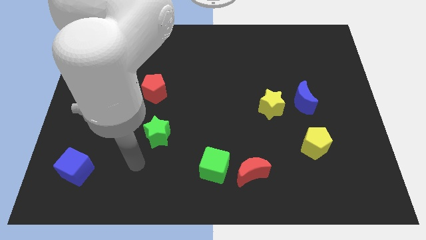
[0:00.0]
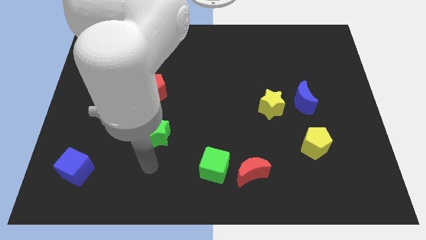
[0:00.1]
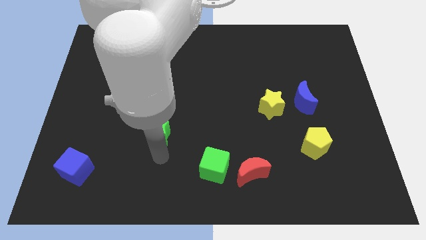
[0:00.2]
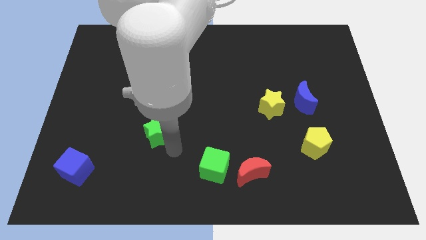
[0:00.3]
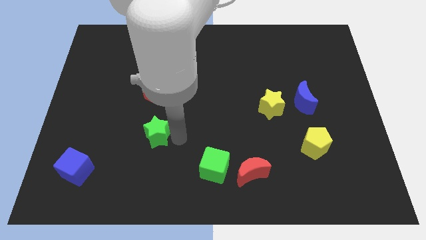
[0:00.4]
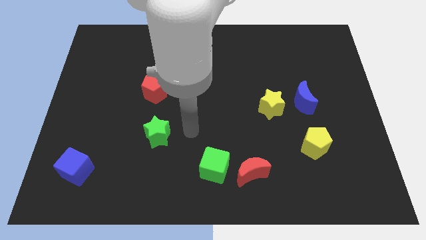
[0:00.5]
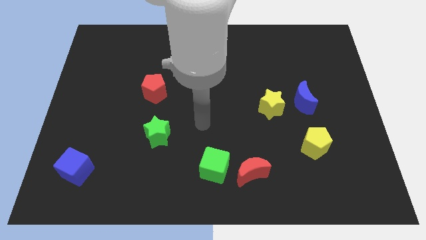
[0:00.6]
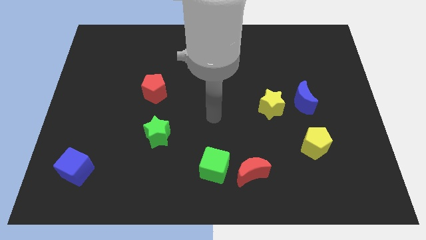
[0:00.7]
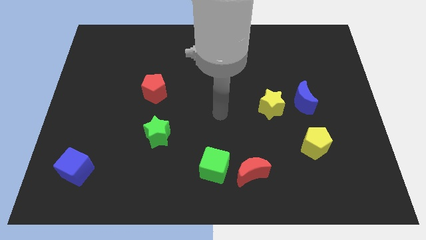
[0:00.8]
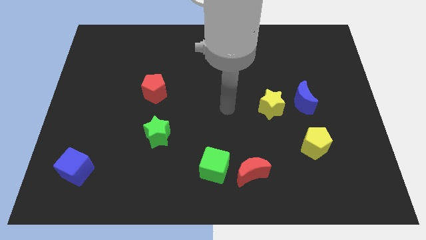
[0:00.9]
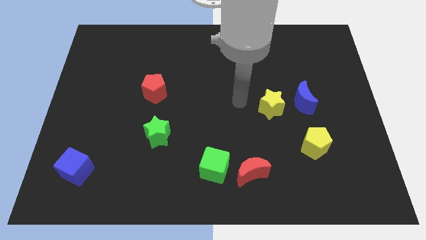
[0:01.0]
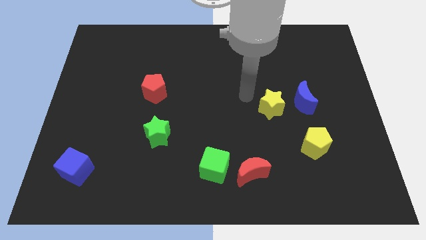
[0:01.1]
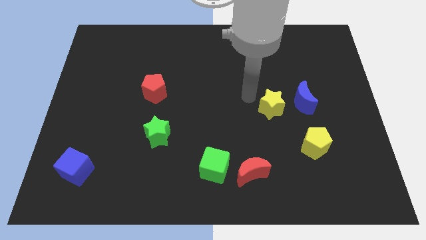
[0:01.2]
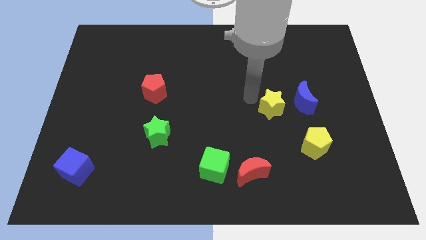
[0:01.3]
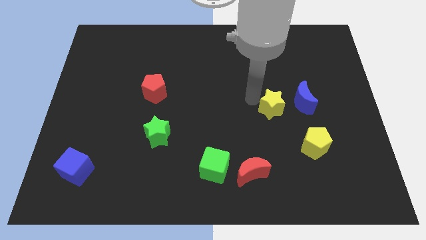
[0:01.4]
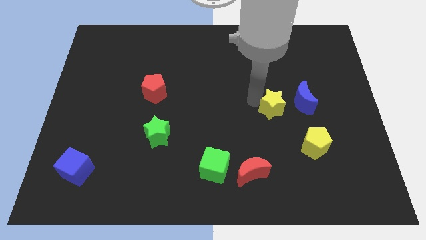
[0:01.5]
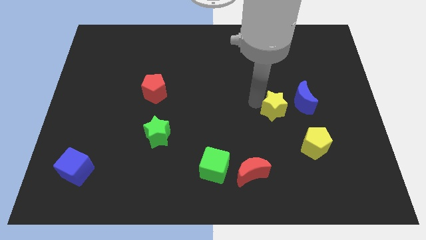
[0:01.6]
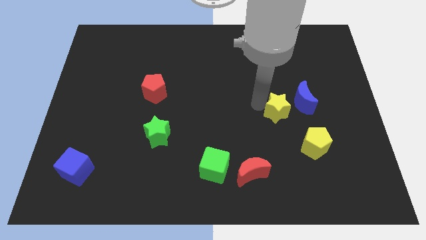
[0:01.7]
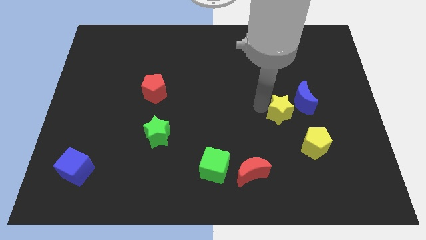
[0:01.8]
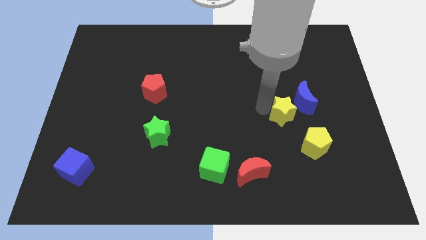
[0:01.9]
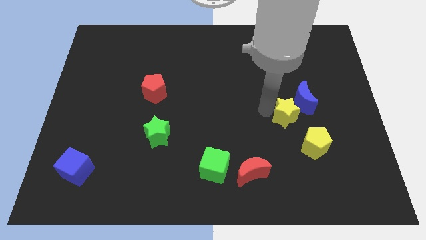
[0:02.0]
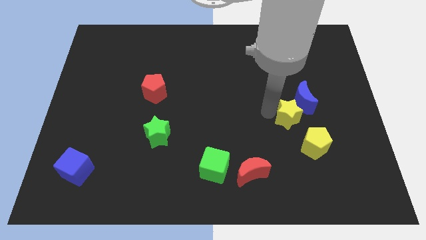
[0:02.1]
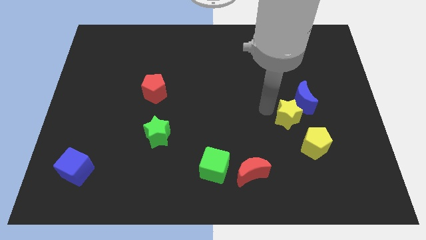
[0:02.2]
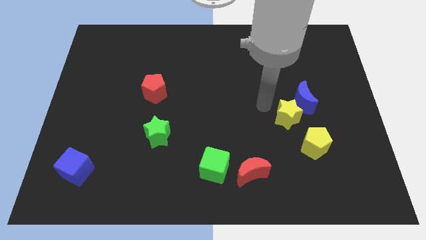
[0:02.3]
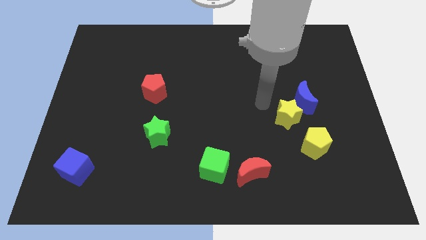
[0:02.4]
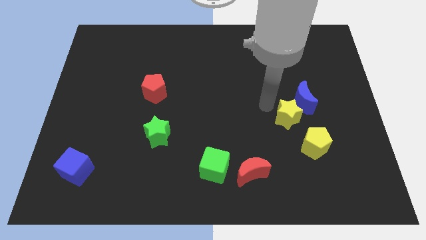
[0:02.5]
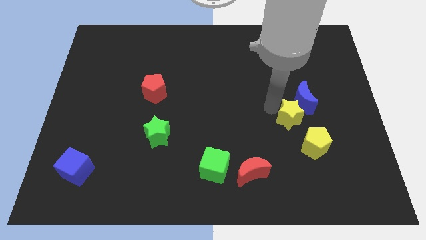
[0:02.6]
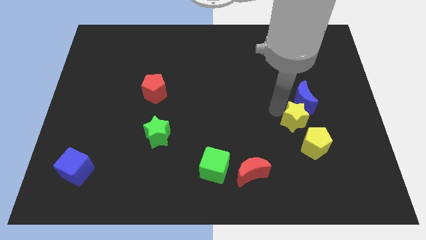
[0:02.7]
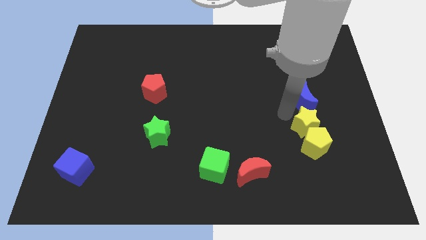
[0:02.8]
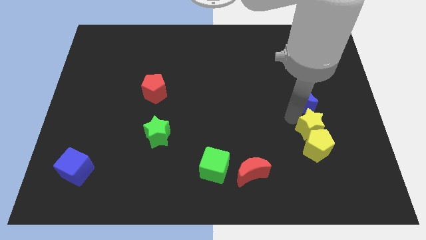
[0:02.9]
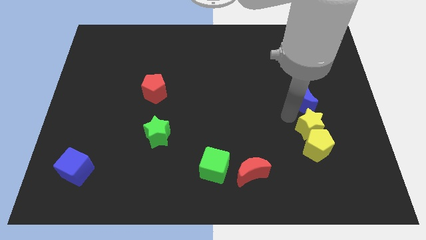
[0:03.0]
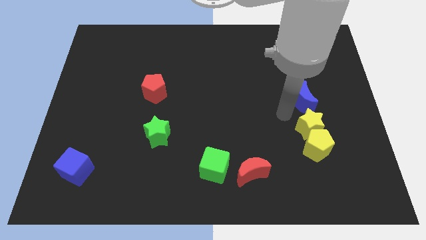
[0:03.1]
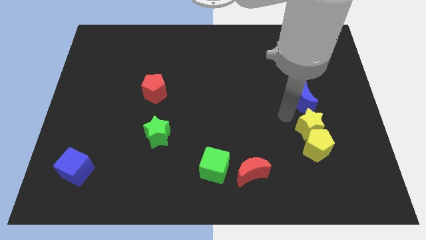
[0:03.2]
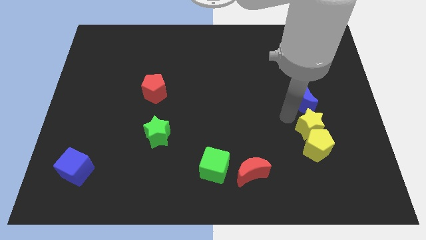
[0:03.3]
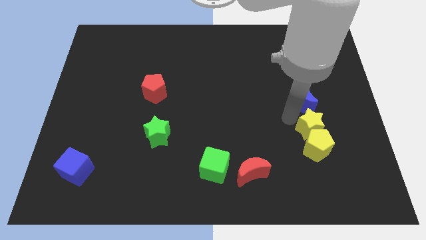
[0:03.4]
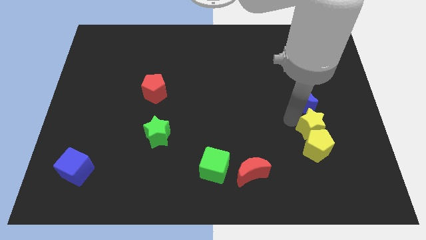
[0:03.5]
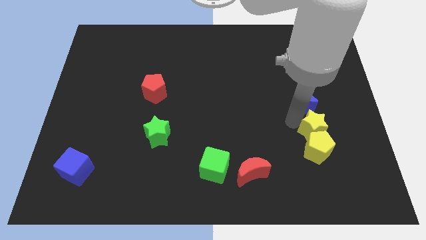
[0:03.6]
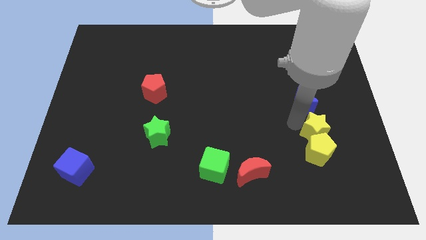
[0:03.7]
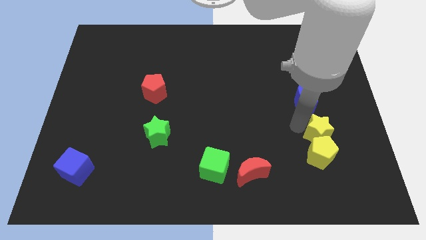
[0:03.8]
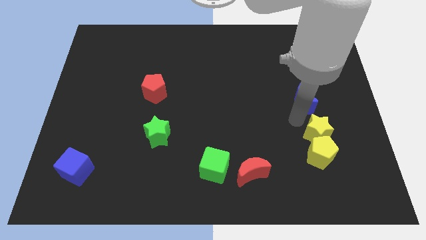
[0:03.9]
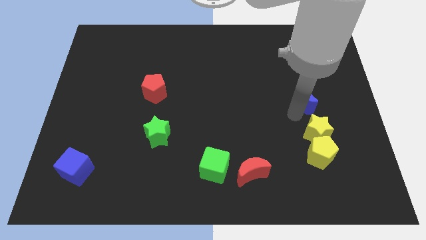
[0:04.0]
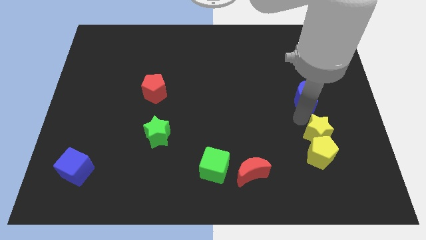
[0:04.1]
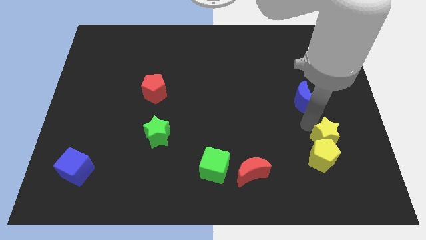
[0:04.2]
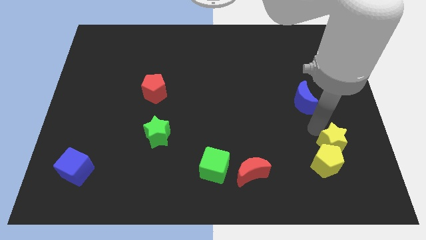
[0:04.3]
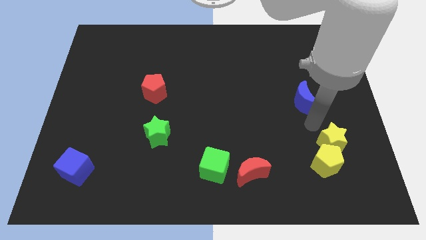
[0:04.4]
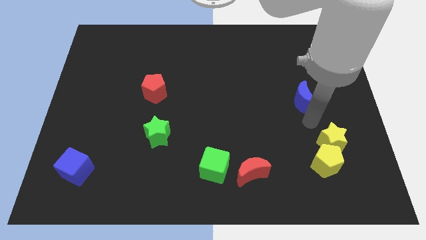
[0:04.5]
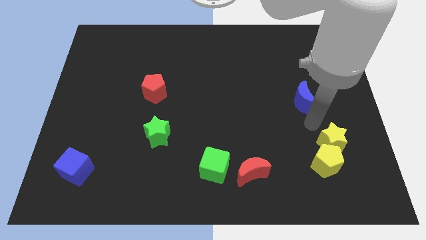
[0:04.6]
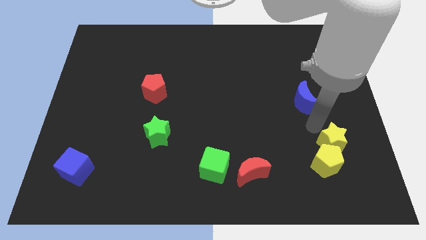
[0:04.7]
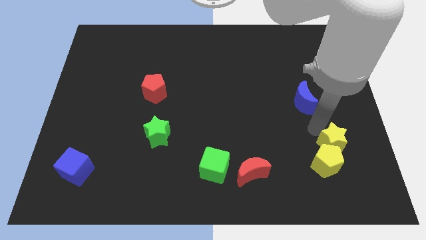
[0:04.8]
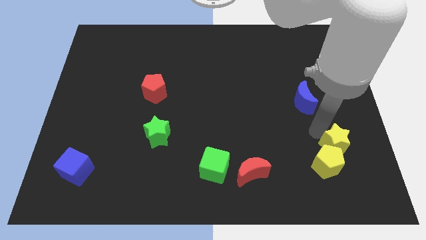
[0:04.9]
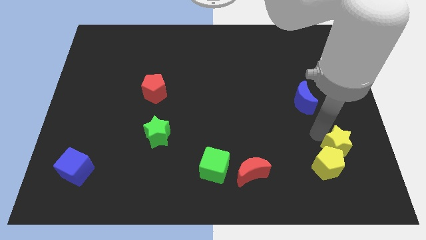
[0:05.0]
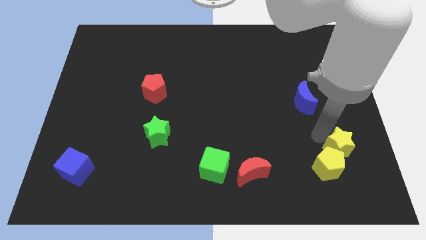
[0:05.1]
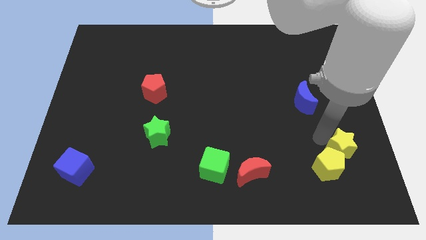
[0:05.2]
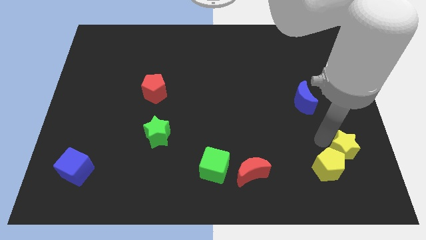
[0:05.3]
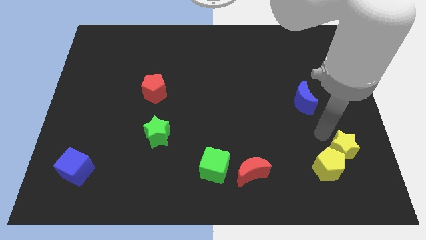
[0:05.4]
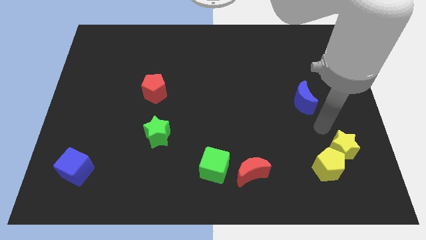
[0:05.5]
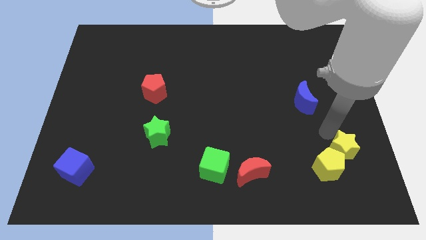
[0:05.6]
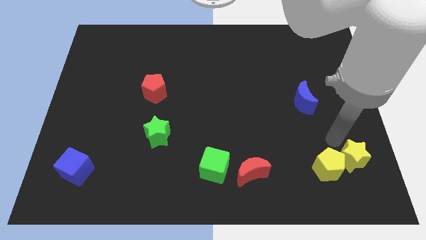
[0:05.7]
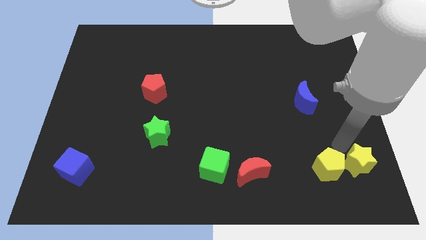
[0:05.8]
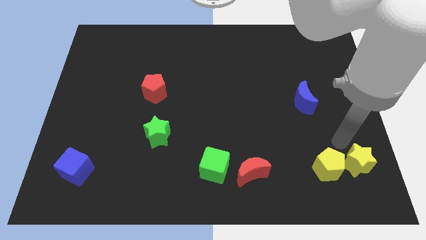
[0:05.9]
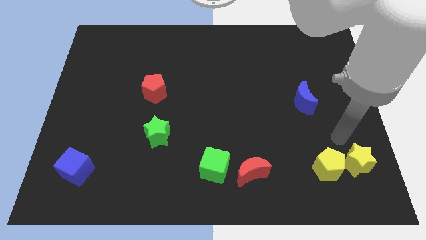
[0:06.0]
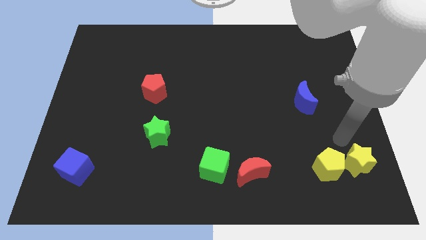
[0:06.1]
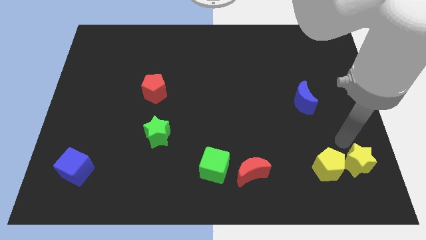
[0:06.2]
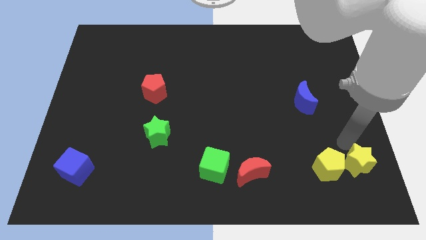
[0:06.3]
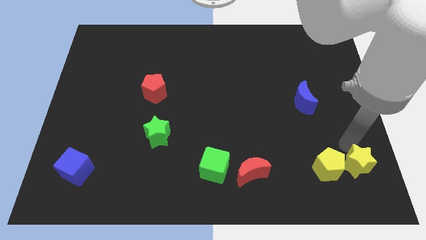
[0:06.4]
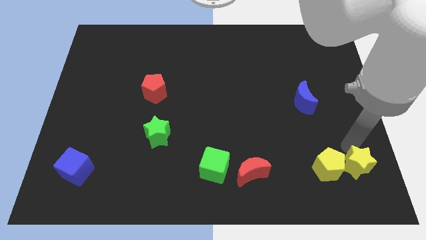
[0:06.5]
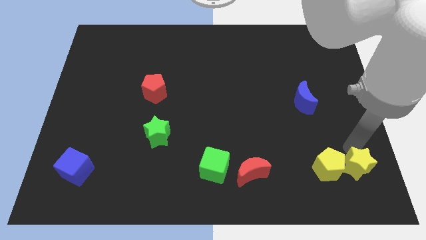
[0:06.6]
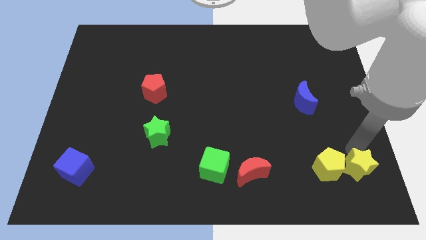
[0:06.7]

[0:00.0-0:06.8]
push the yellow star to the bottom right

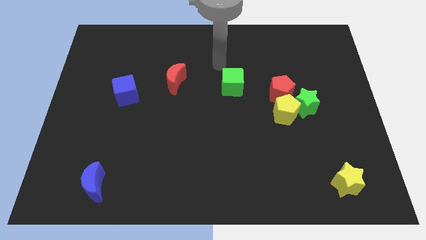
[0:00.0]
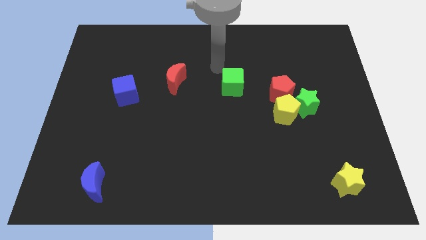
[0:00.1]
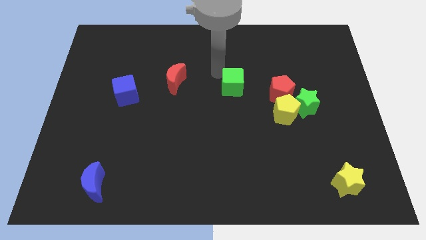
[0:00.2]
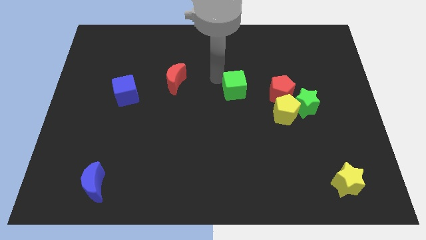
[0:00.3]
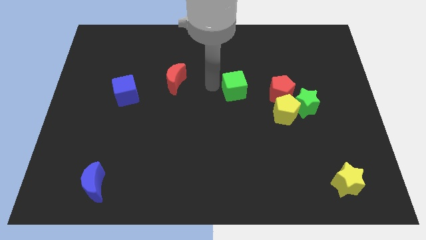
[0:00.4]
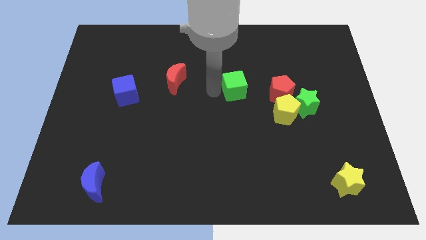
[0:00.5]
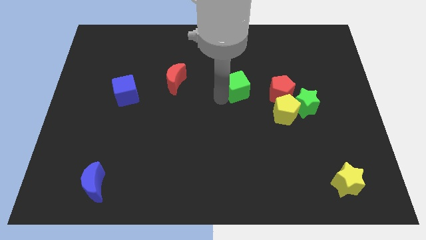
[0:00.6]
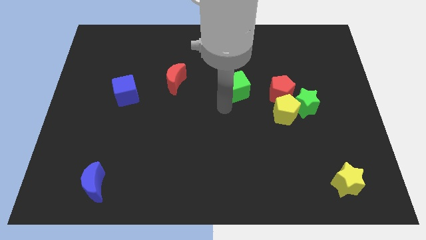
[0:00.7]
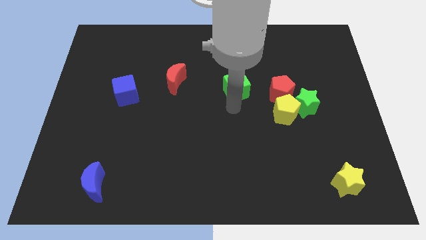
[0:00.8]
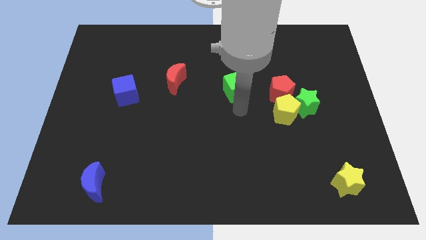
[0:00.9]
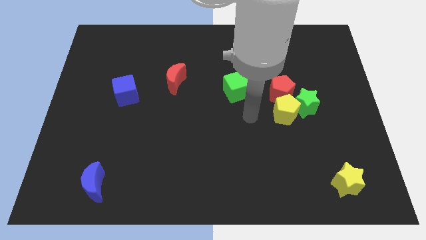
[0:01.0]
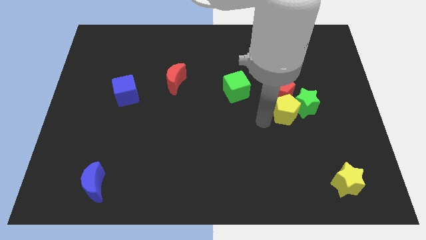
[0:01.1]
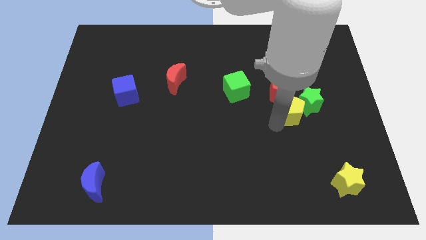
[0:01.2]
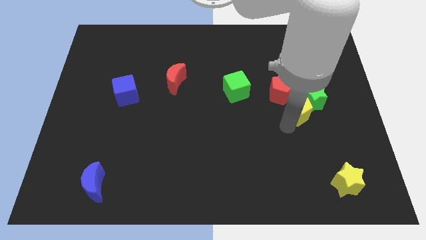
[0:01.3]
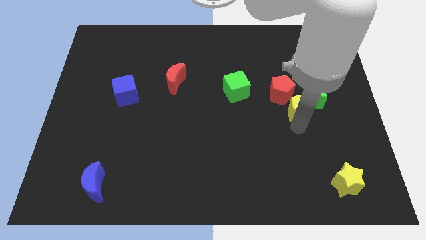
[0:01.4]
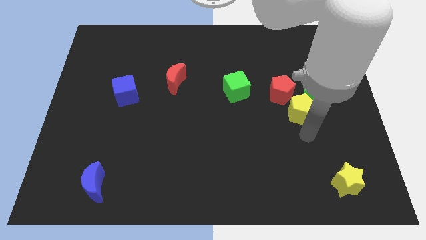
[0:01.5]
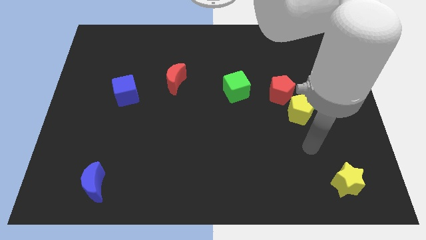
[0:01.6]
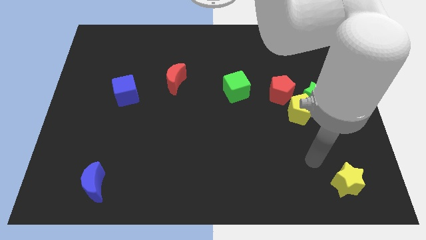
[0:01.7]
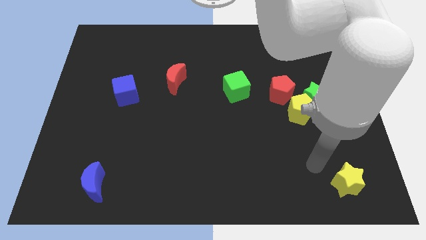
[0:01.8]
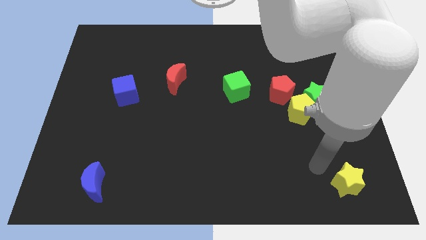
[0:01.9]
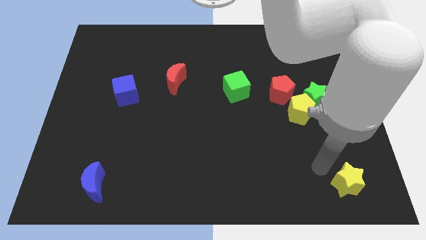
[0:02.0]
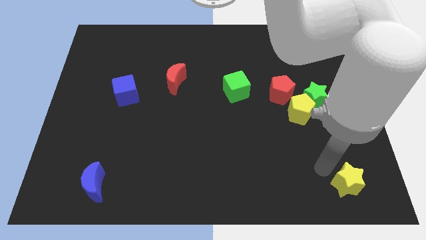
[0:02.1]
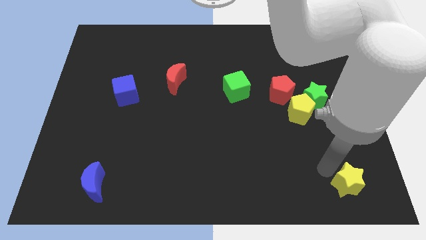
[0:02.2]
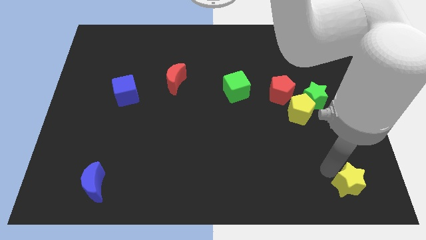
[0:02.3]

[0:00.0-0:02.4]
push the yellow star to the bottom right of the board
